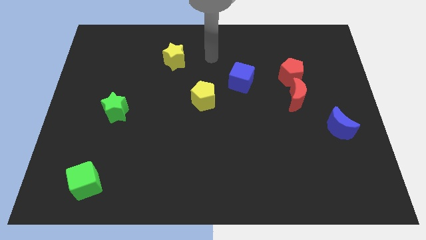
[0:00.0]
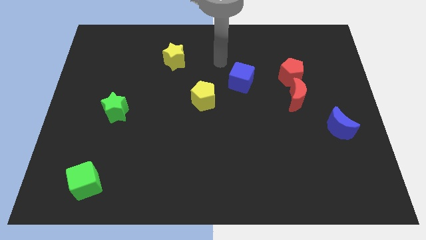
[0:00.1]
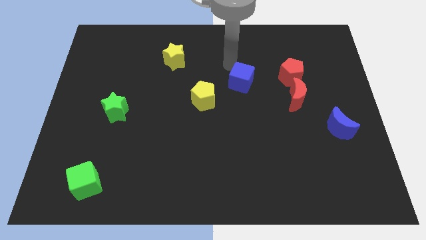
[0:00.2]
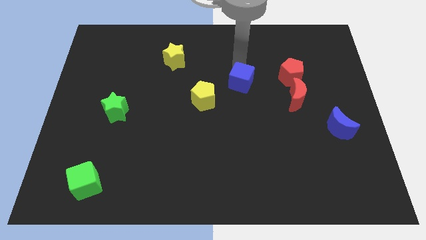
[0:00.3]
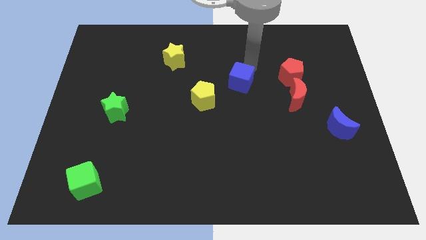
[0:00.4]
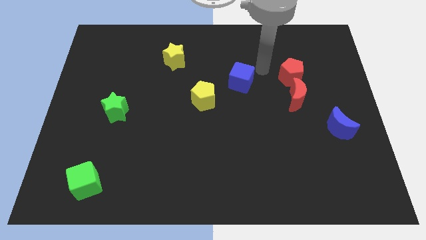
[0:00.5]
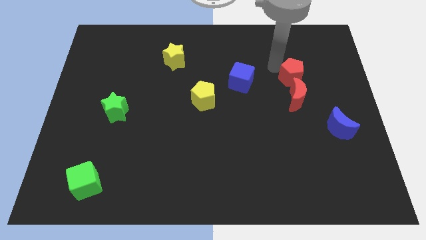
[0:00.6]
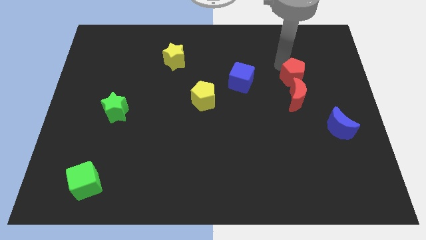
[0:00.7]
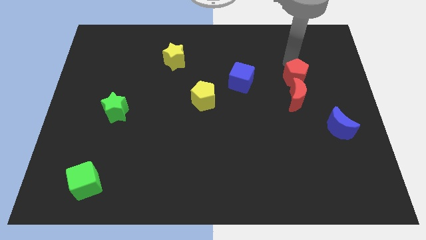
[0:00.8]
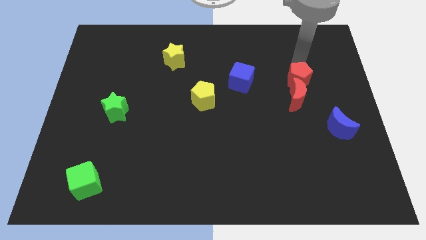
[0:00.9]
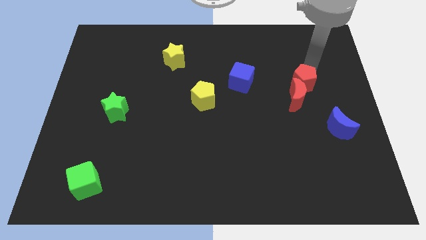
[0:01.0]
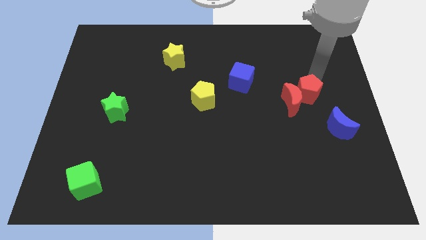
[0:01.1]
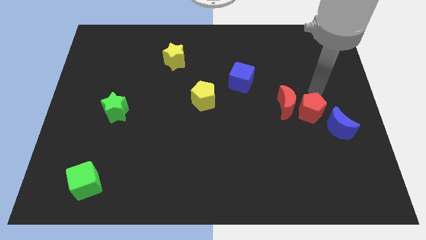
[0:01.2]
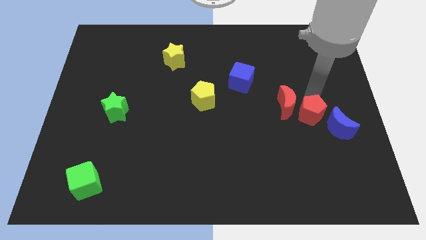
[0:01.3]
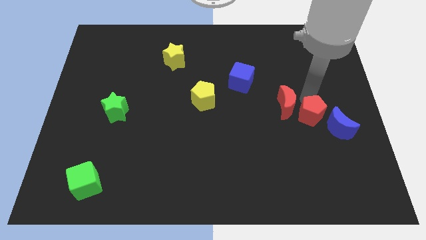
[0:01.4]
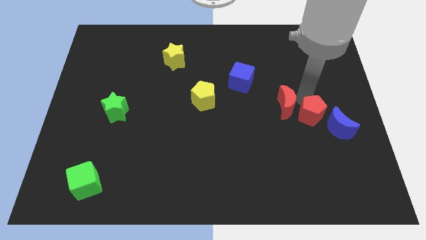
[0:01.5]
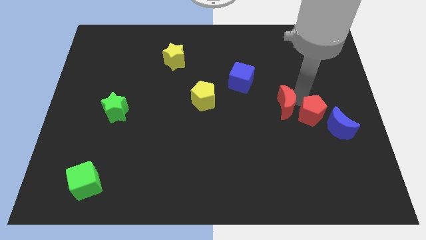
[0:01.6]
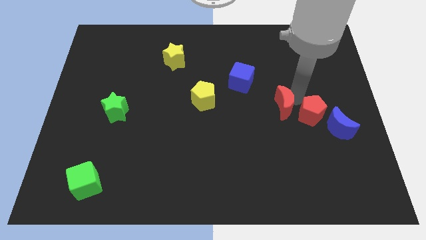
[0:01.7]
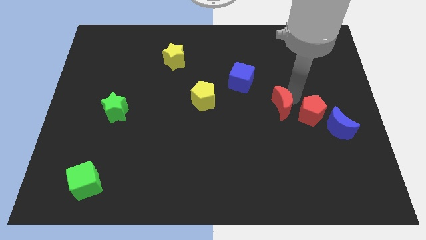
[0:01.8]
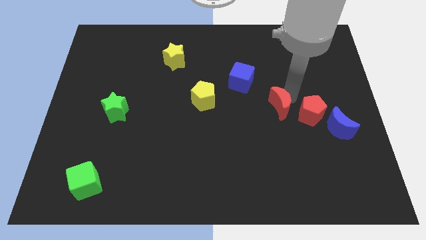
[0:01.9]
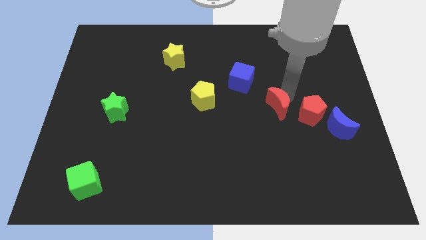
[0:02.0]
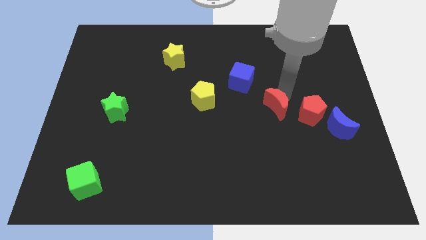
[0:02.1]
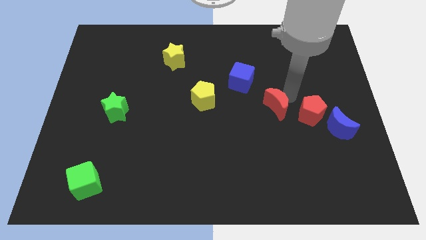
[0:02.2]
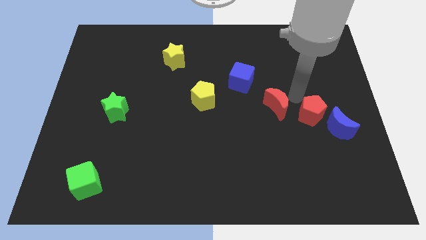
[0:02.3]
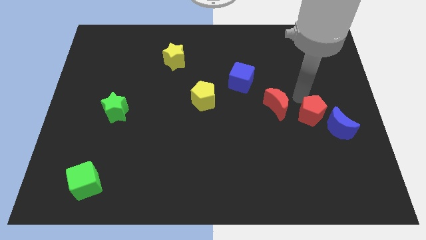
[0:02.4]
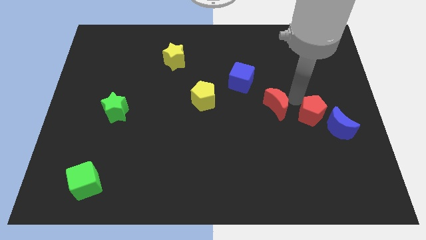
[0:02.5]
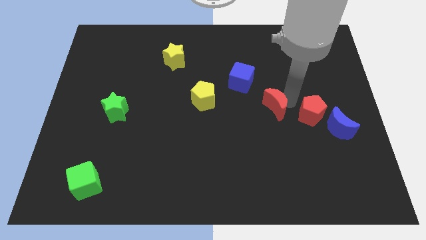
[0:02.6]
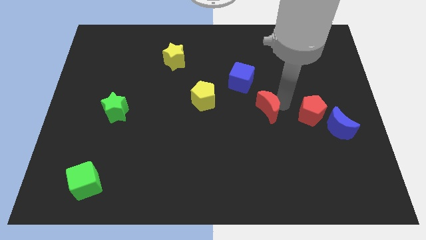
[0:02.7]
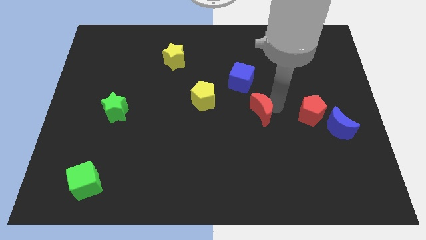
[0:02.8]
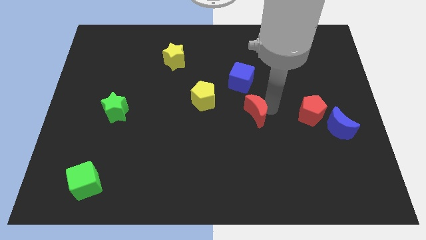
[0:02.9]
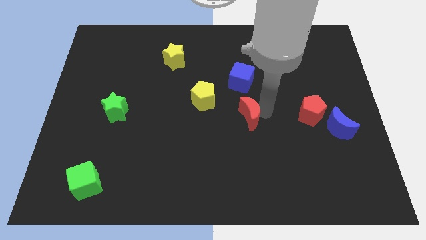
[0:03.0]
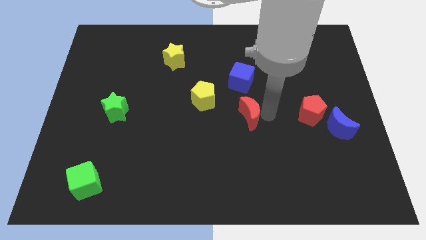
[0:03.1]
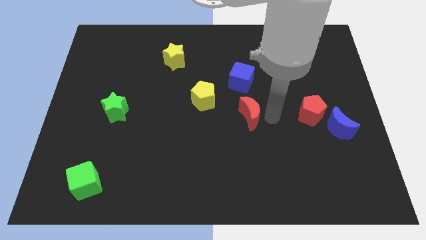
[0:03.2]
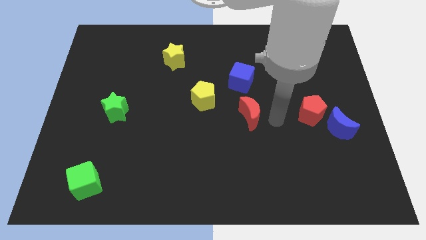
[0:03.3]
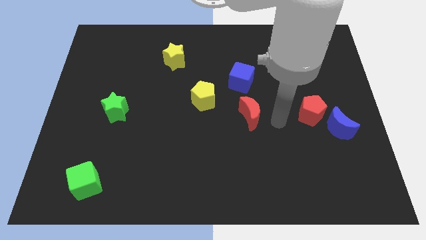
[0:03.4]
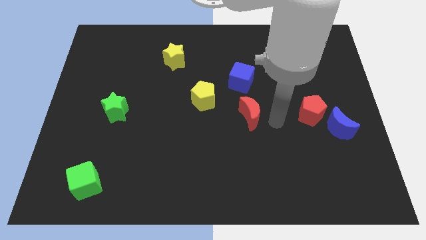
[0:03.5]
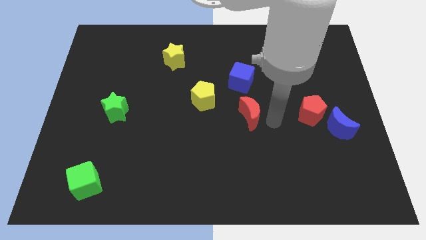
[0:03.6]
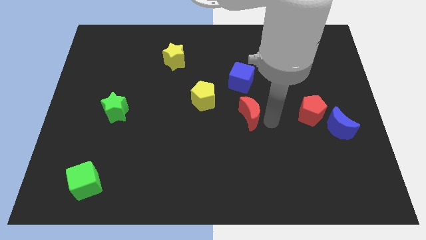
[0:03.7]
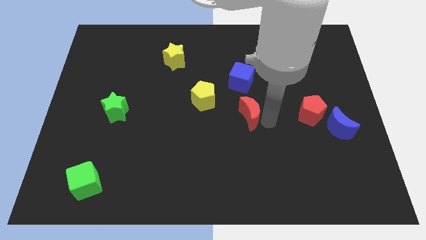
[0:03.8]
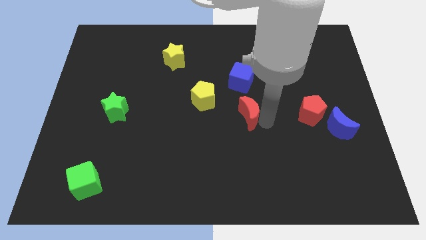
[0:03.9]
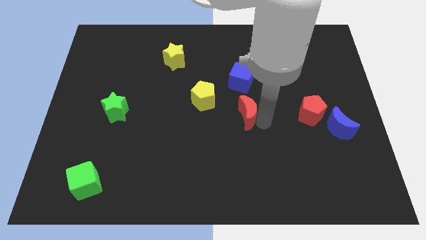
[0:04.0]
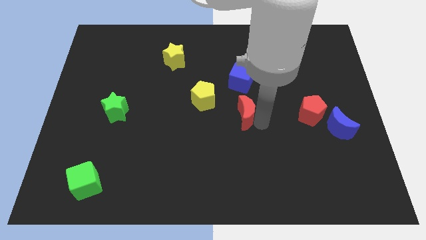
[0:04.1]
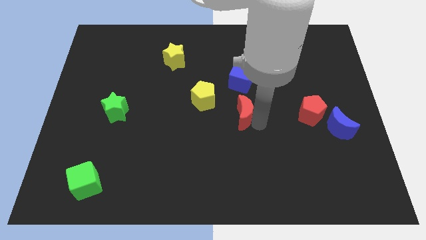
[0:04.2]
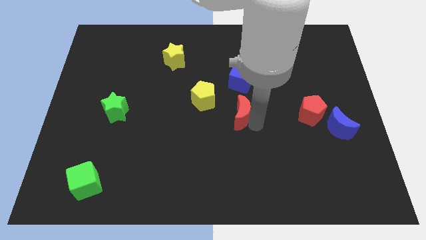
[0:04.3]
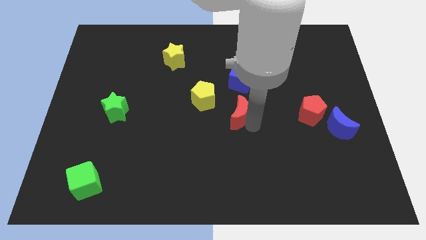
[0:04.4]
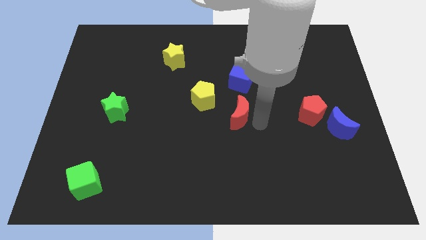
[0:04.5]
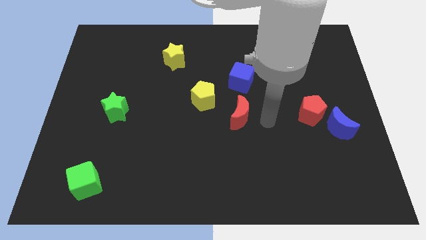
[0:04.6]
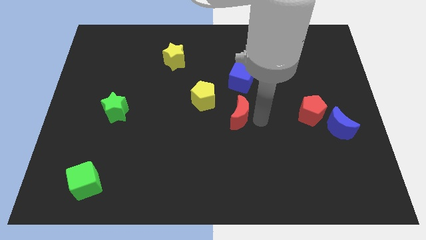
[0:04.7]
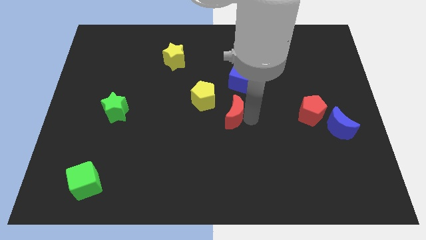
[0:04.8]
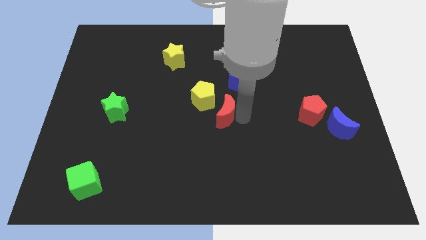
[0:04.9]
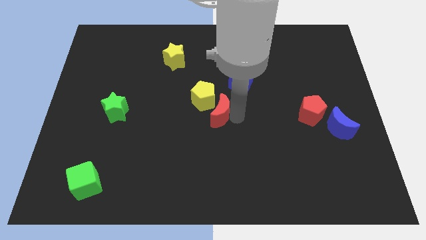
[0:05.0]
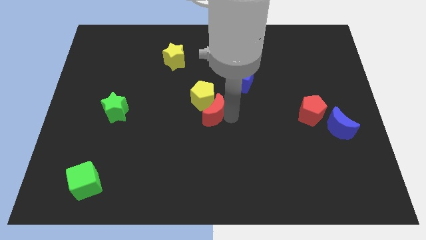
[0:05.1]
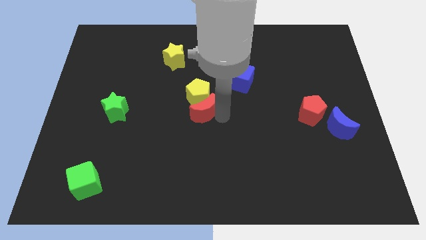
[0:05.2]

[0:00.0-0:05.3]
move the red moon to the left

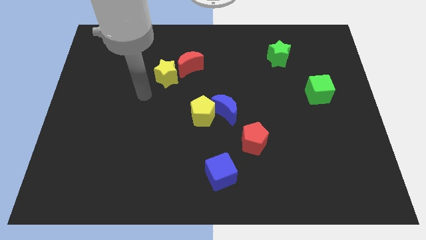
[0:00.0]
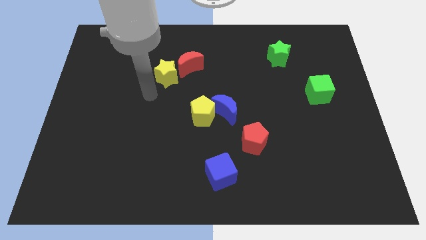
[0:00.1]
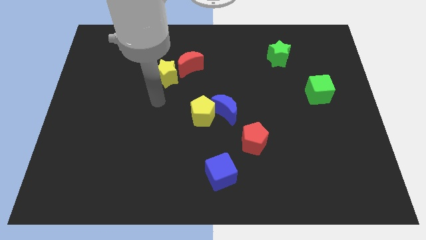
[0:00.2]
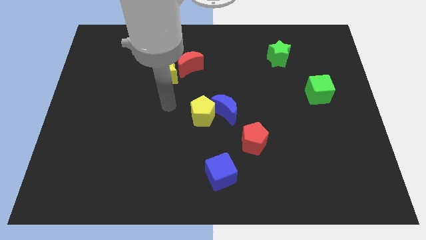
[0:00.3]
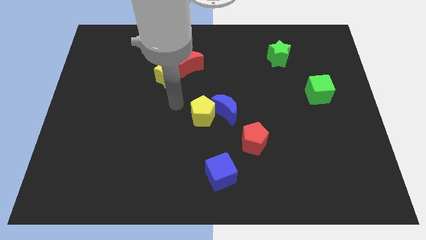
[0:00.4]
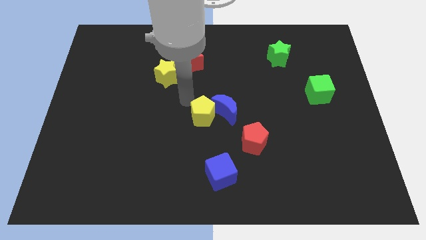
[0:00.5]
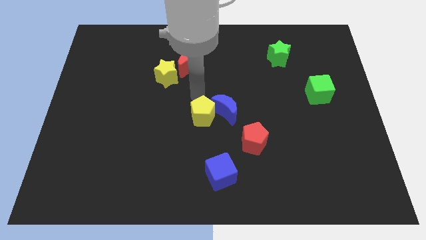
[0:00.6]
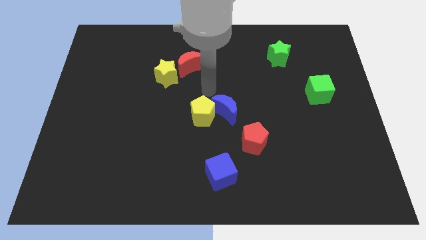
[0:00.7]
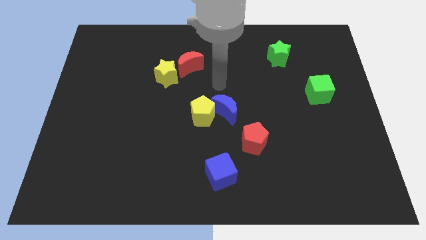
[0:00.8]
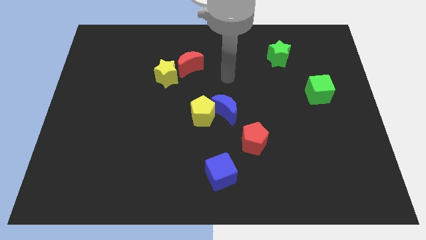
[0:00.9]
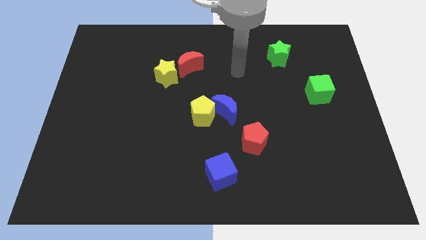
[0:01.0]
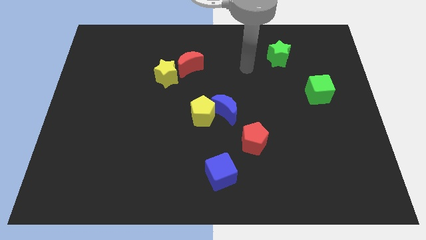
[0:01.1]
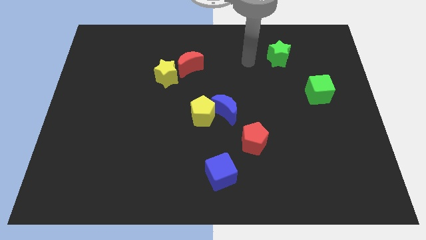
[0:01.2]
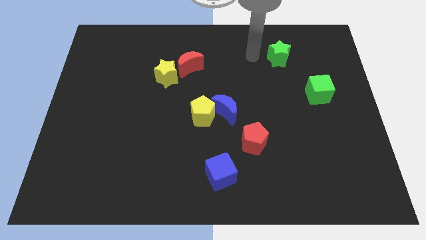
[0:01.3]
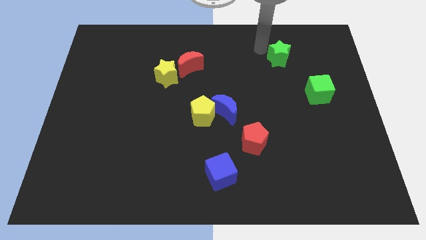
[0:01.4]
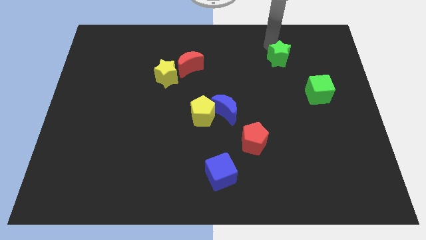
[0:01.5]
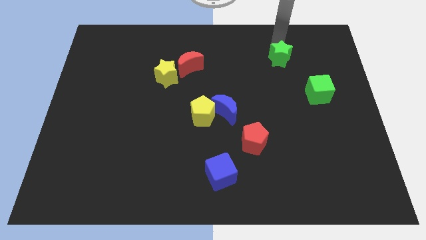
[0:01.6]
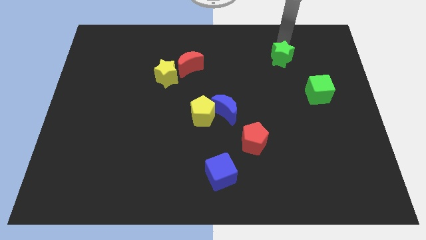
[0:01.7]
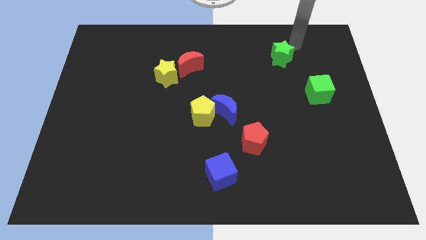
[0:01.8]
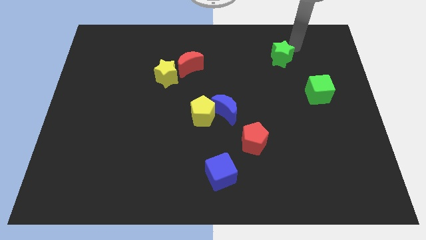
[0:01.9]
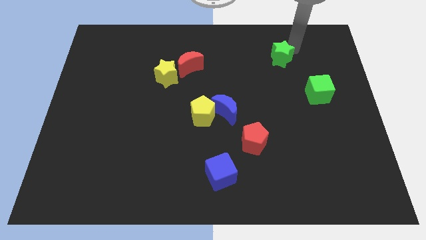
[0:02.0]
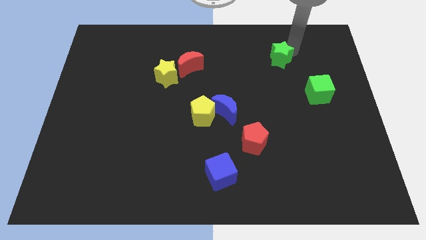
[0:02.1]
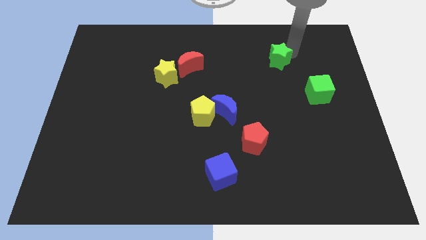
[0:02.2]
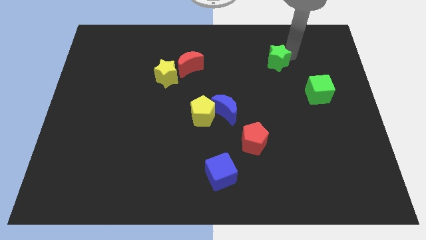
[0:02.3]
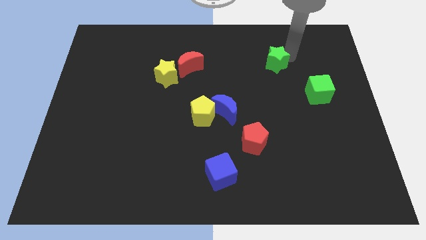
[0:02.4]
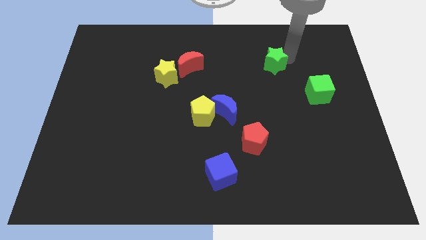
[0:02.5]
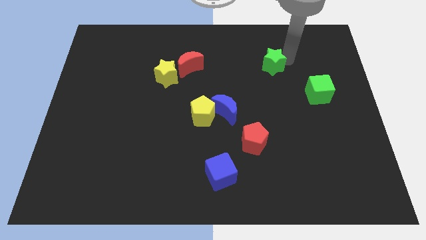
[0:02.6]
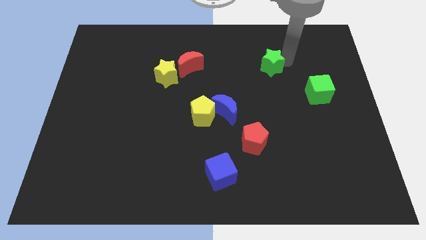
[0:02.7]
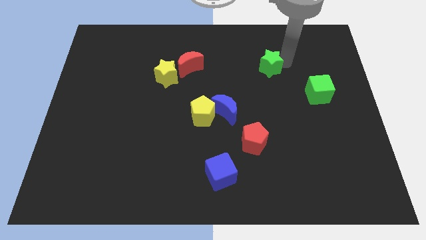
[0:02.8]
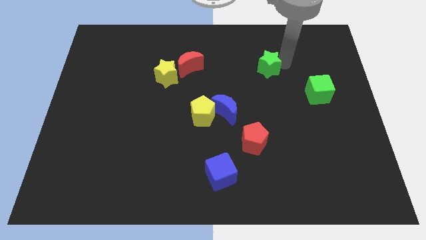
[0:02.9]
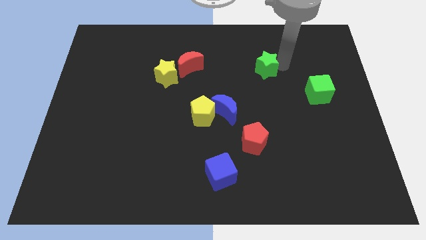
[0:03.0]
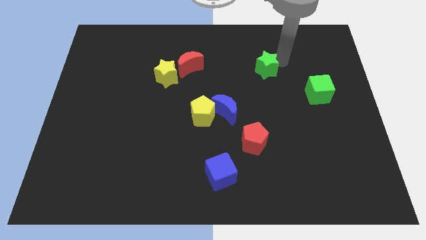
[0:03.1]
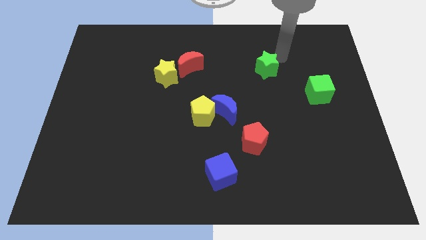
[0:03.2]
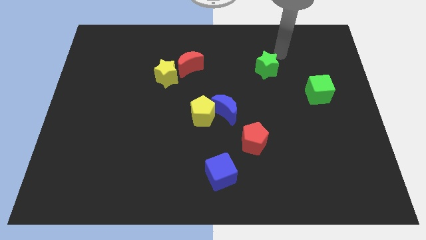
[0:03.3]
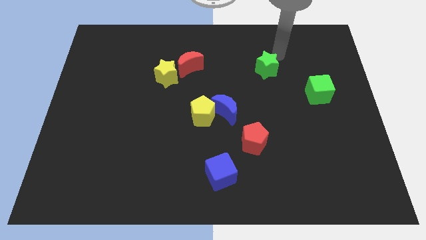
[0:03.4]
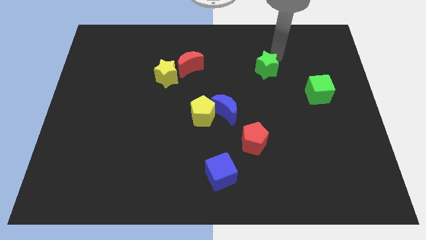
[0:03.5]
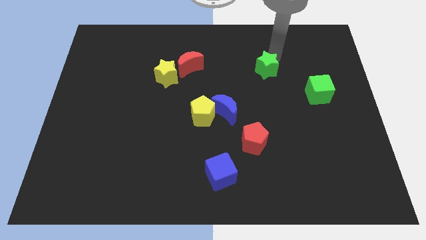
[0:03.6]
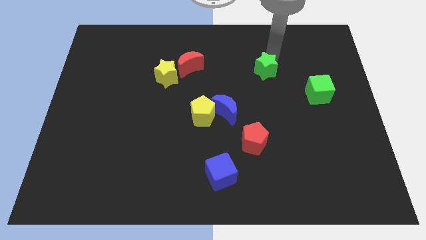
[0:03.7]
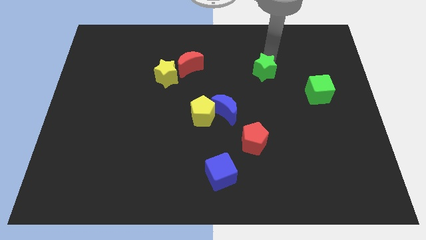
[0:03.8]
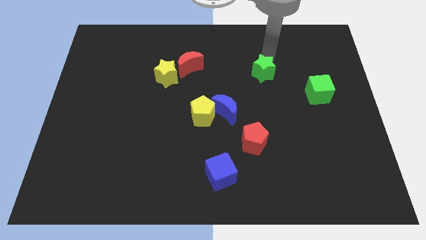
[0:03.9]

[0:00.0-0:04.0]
push the green star diagonally downwards and to the left a little bit
